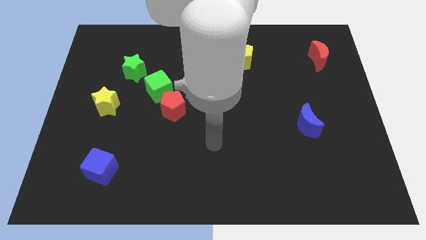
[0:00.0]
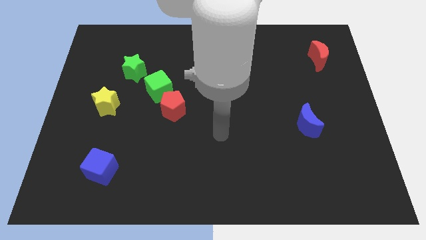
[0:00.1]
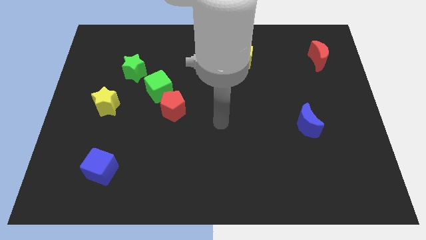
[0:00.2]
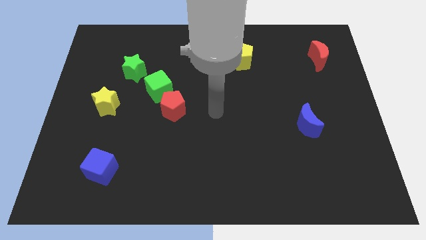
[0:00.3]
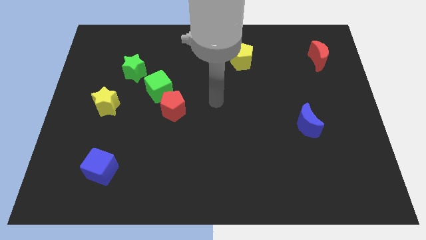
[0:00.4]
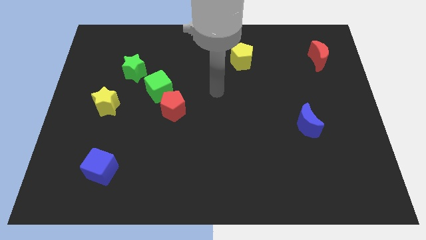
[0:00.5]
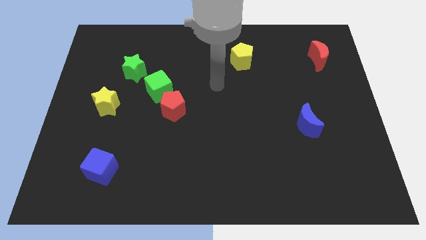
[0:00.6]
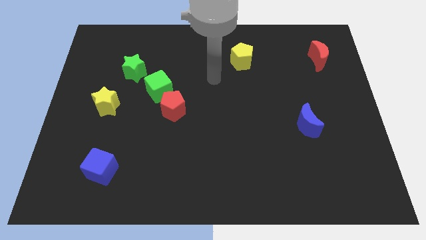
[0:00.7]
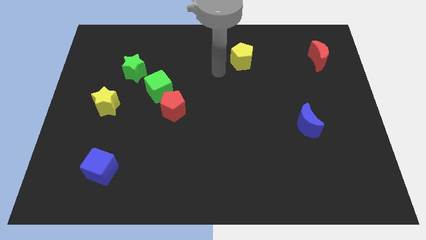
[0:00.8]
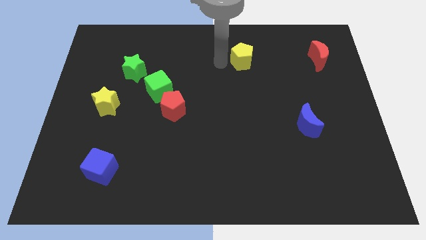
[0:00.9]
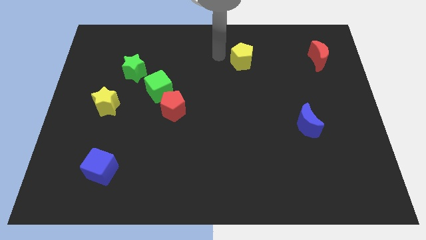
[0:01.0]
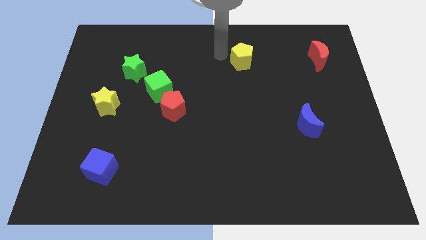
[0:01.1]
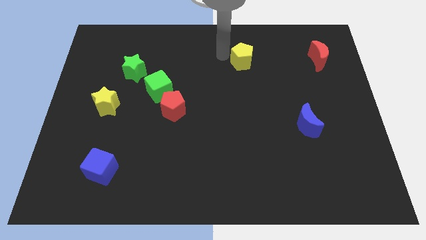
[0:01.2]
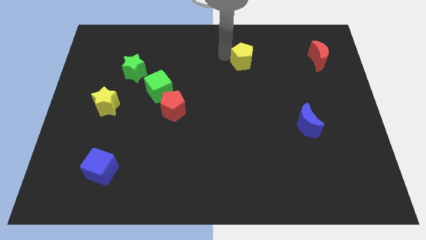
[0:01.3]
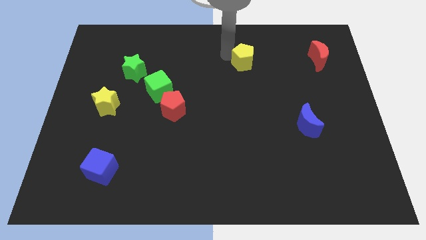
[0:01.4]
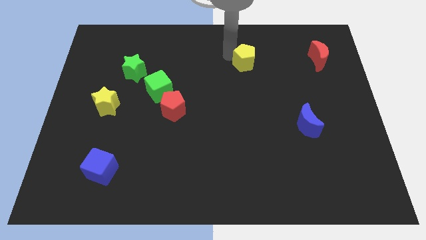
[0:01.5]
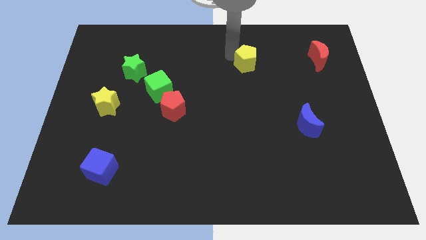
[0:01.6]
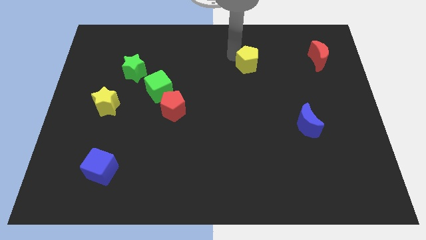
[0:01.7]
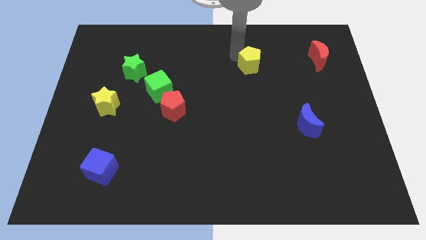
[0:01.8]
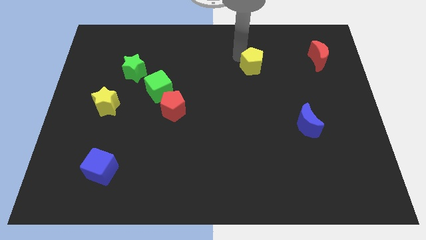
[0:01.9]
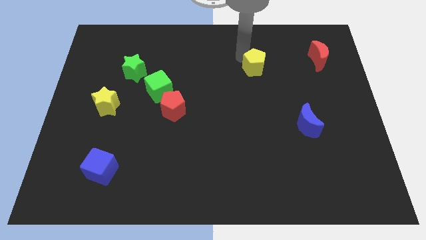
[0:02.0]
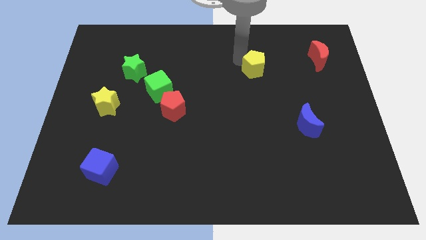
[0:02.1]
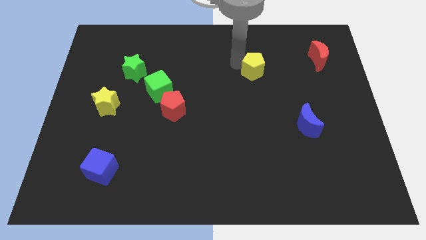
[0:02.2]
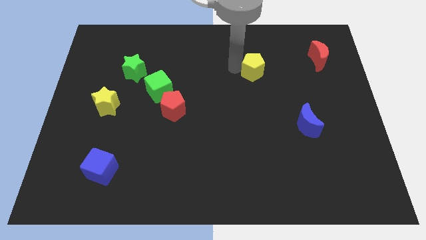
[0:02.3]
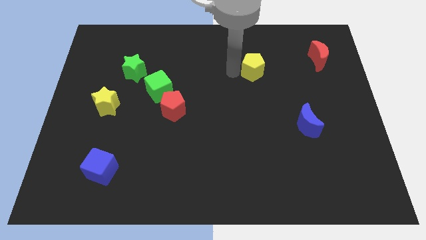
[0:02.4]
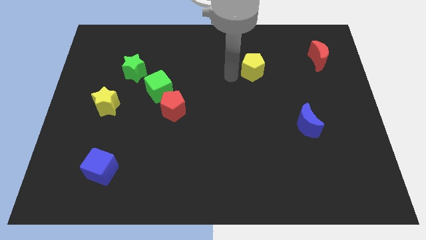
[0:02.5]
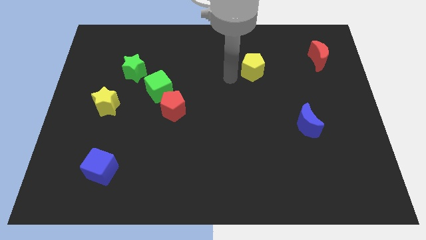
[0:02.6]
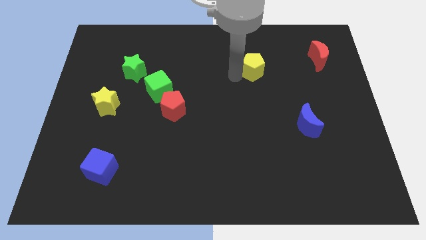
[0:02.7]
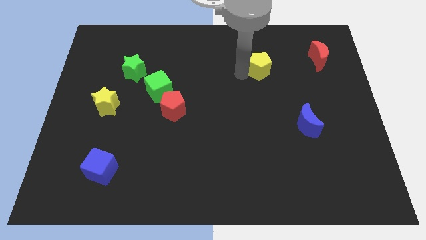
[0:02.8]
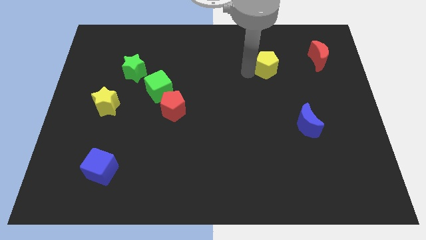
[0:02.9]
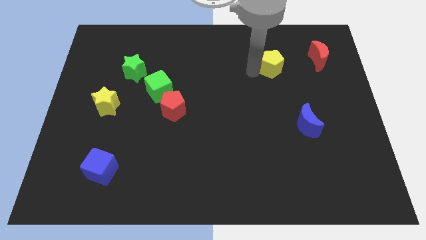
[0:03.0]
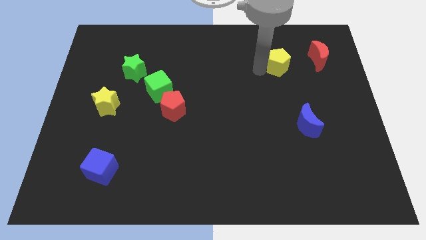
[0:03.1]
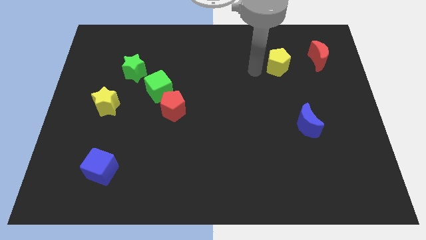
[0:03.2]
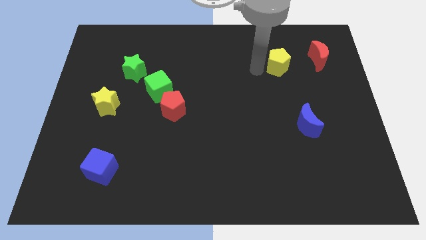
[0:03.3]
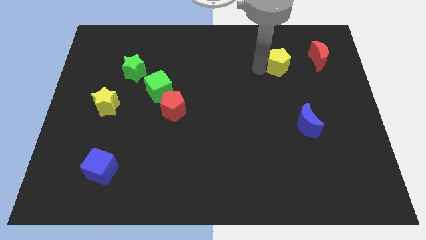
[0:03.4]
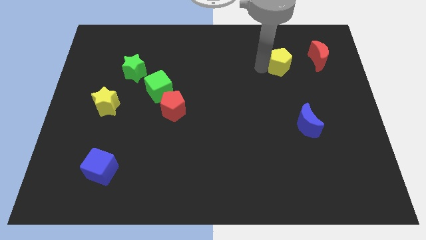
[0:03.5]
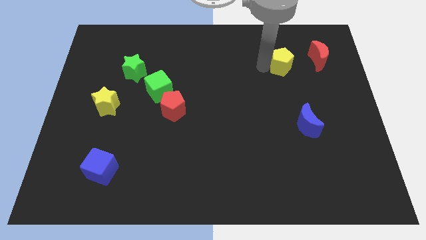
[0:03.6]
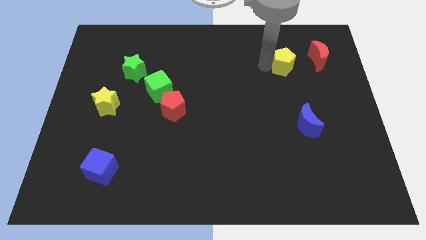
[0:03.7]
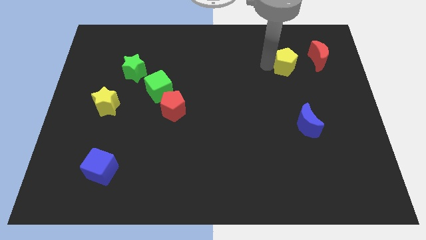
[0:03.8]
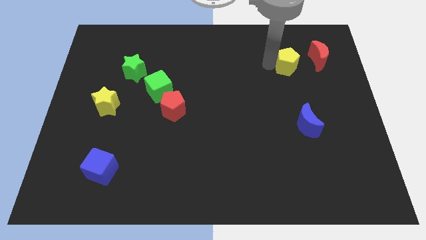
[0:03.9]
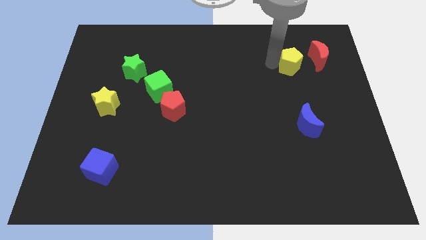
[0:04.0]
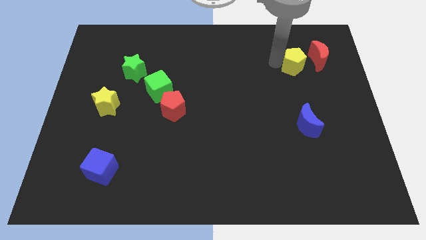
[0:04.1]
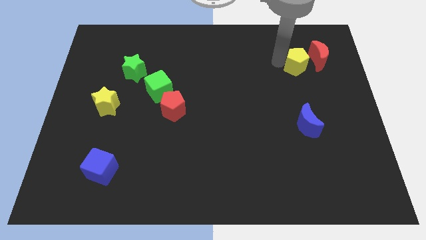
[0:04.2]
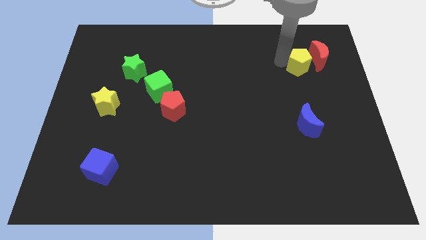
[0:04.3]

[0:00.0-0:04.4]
push the yellow pentagon next to the red moon

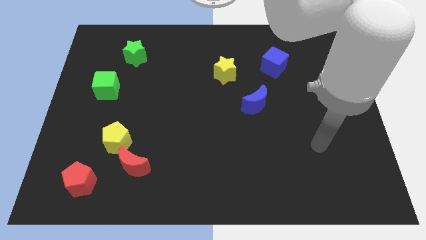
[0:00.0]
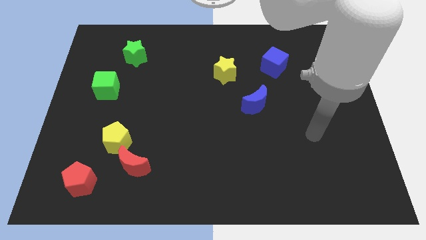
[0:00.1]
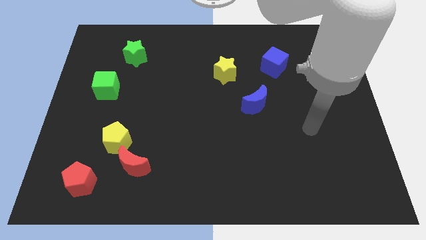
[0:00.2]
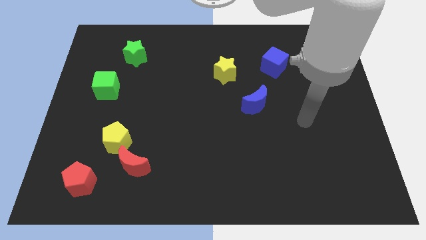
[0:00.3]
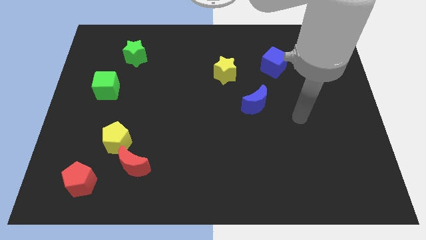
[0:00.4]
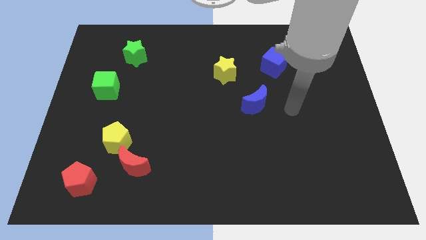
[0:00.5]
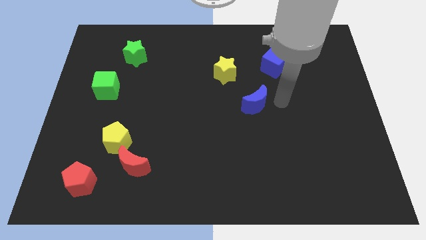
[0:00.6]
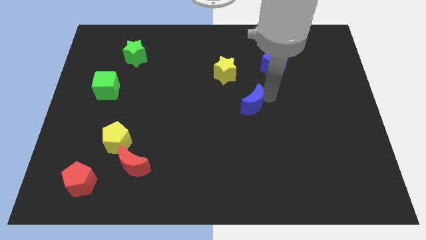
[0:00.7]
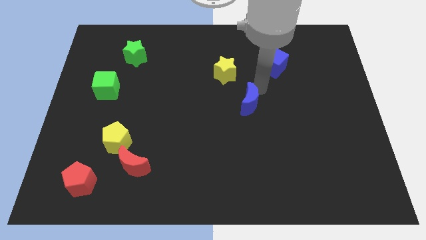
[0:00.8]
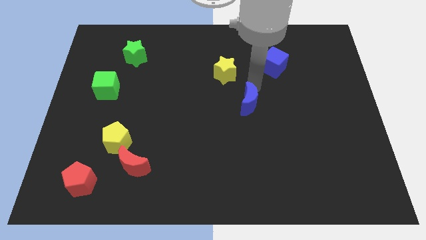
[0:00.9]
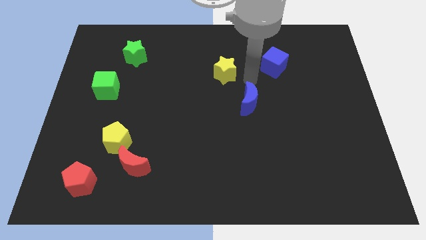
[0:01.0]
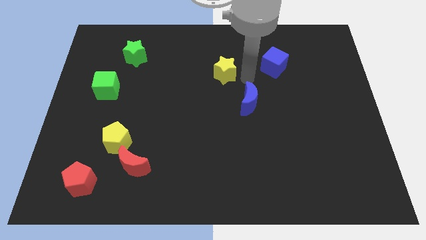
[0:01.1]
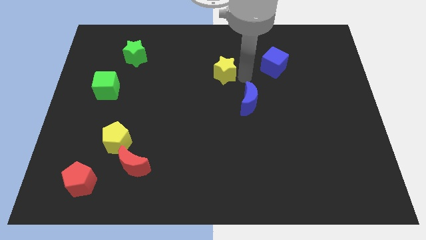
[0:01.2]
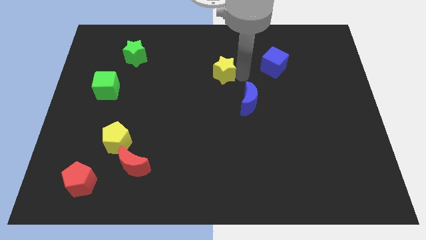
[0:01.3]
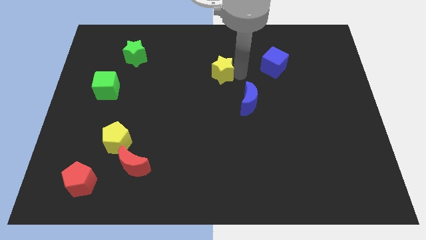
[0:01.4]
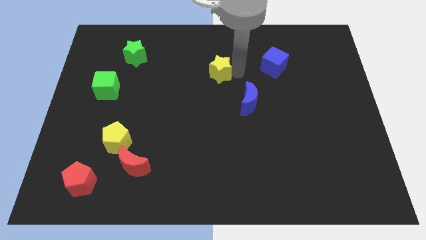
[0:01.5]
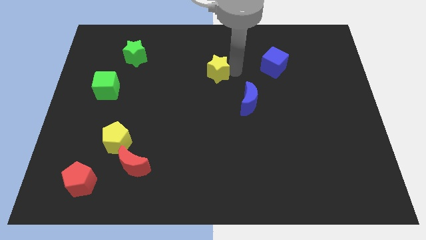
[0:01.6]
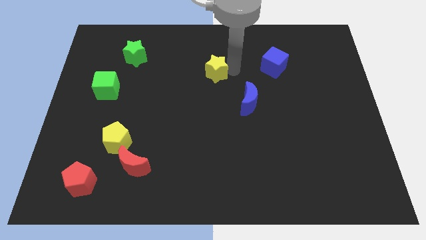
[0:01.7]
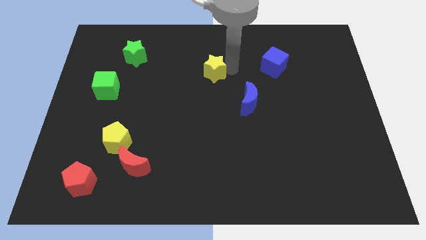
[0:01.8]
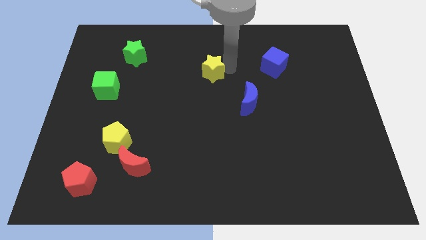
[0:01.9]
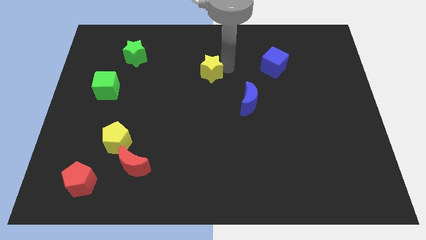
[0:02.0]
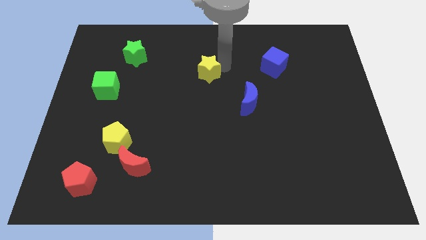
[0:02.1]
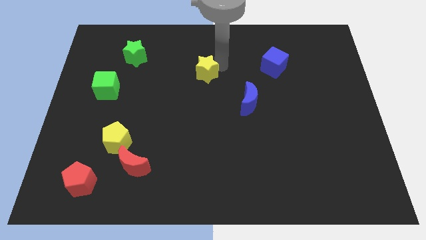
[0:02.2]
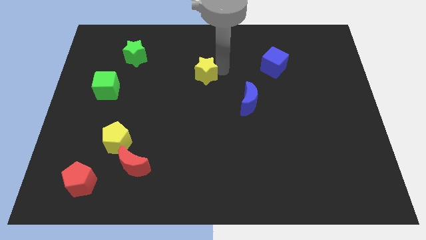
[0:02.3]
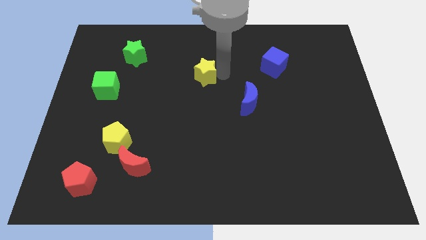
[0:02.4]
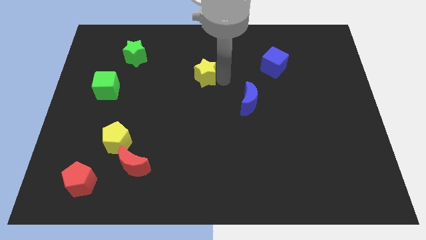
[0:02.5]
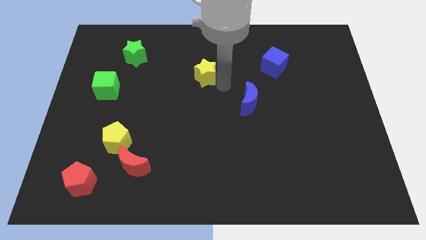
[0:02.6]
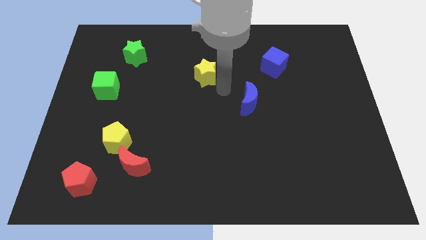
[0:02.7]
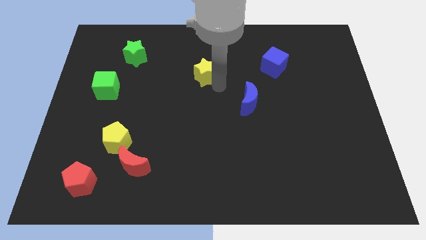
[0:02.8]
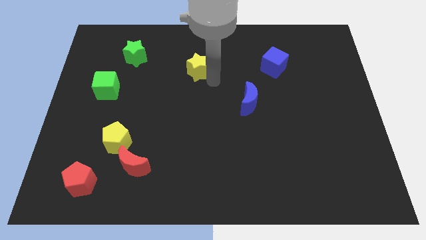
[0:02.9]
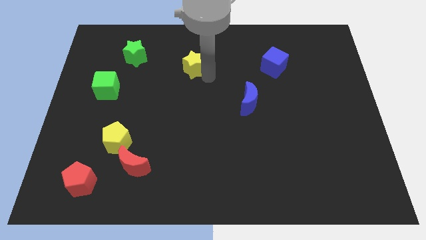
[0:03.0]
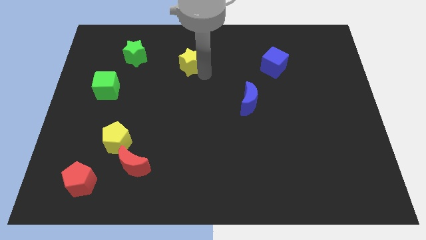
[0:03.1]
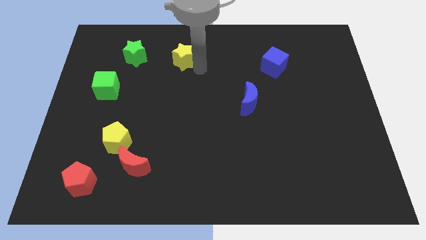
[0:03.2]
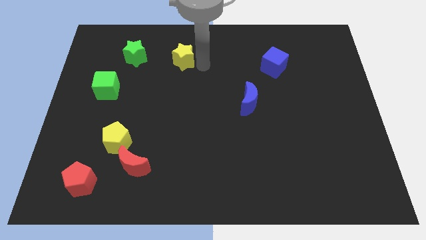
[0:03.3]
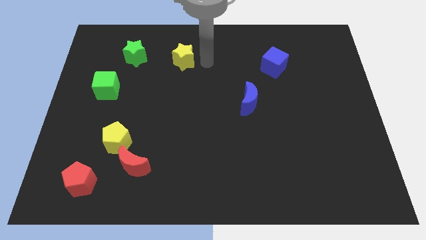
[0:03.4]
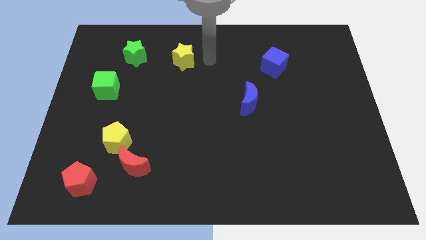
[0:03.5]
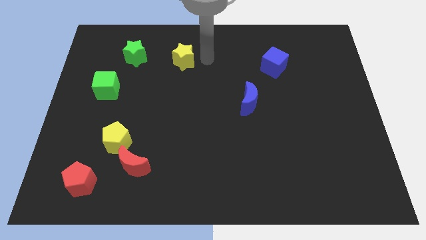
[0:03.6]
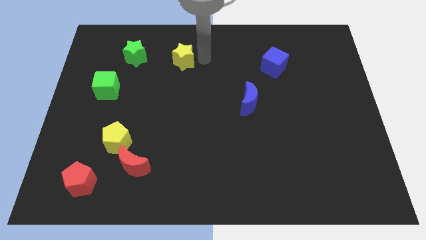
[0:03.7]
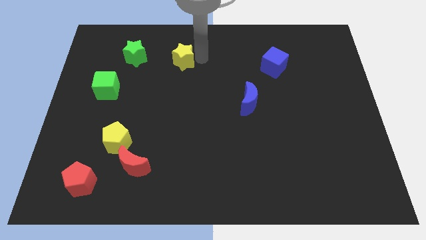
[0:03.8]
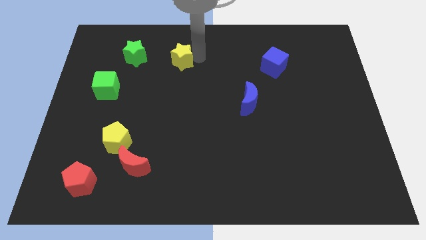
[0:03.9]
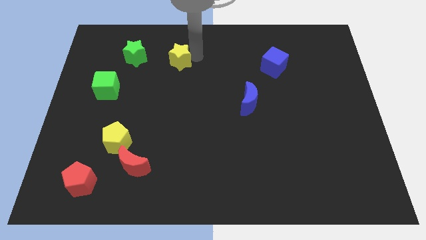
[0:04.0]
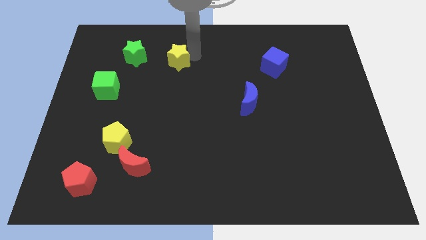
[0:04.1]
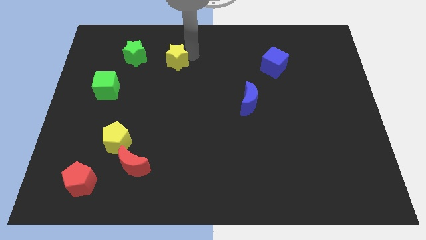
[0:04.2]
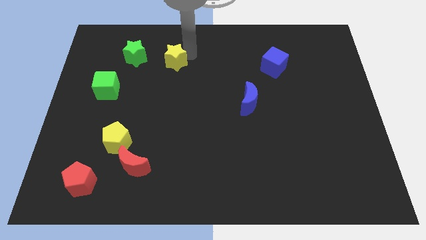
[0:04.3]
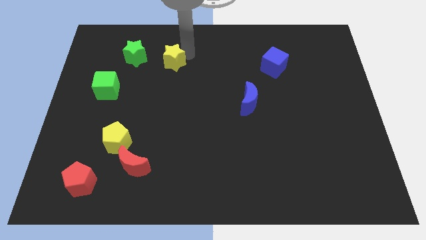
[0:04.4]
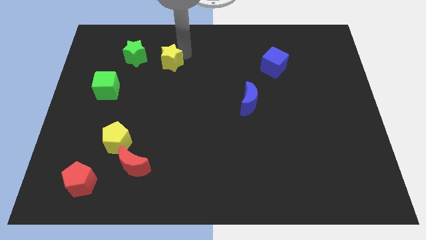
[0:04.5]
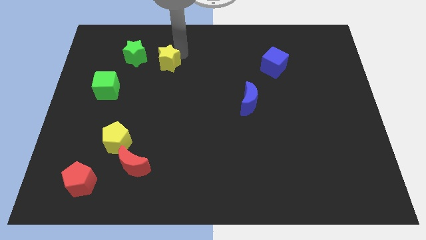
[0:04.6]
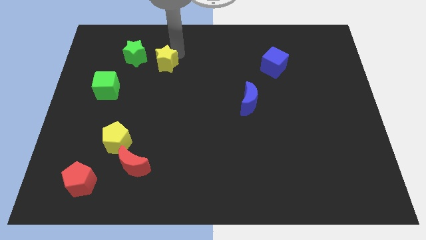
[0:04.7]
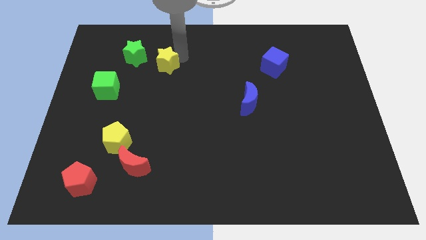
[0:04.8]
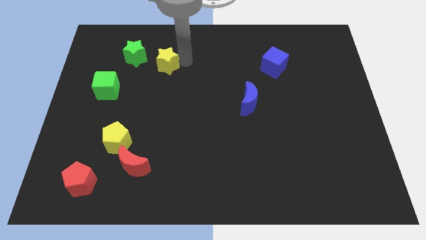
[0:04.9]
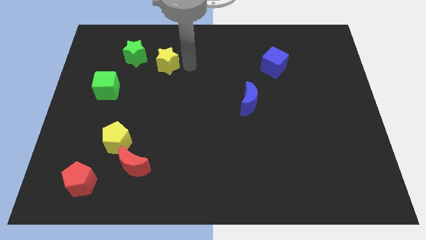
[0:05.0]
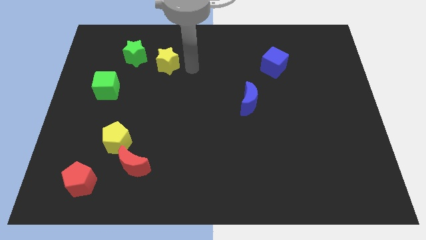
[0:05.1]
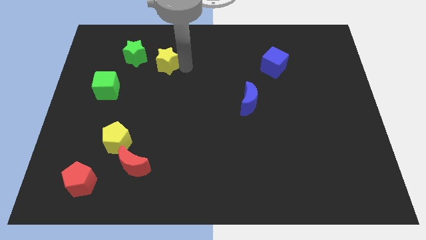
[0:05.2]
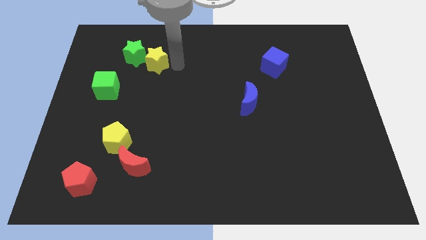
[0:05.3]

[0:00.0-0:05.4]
push the yellow star to the green star
